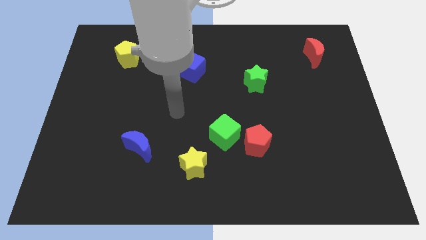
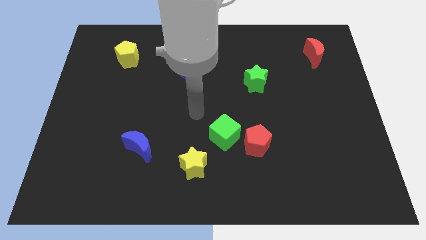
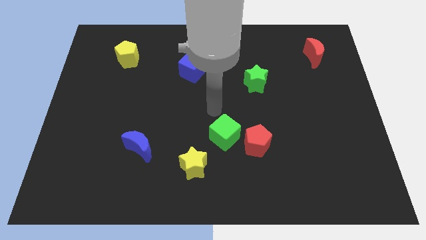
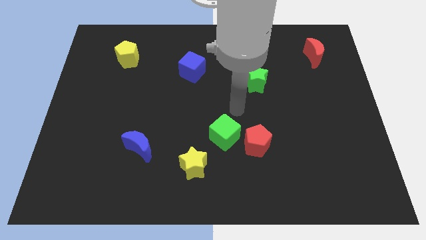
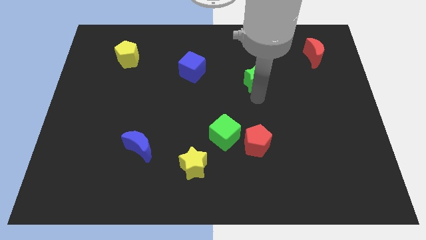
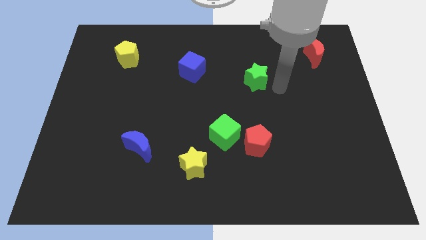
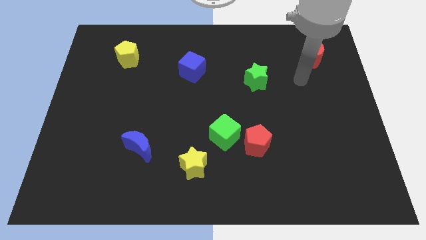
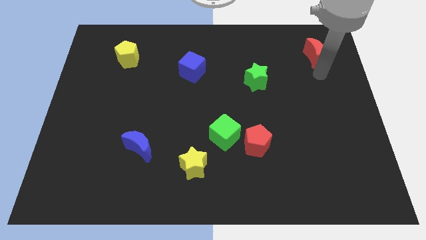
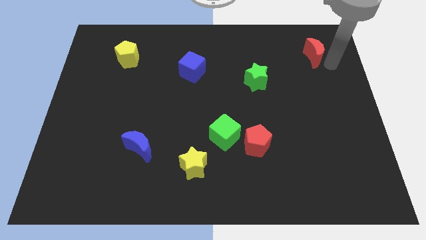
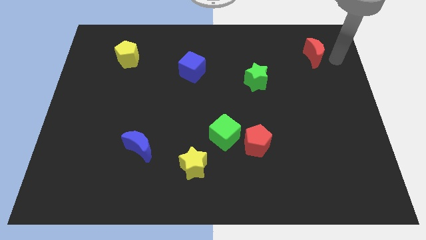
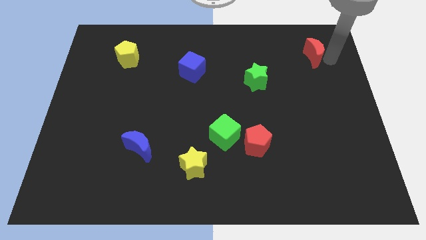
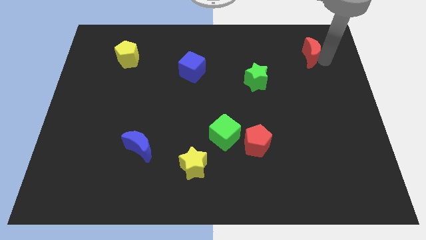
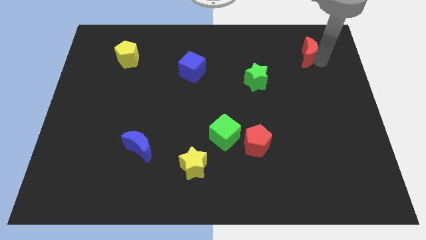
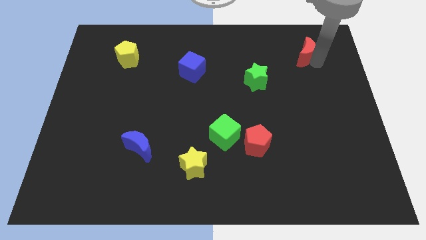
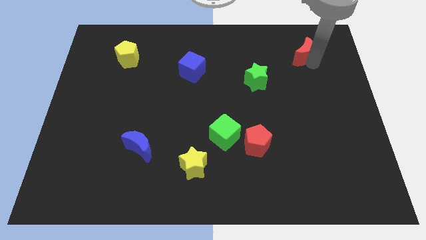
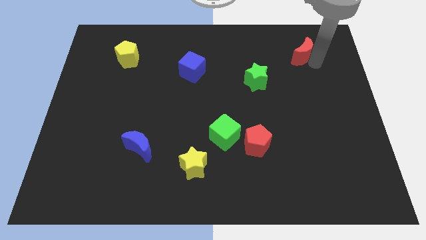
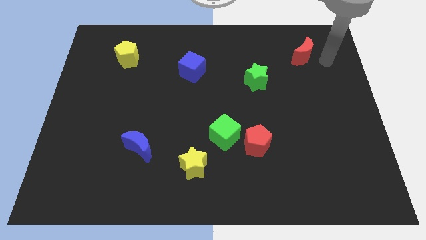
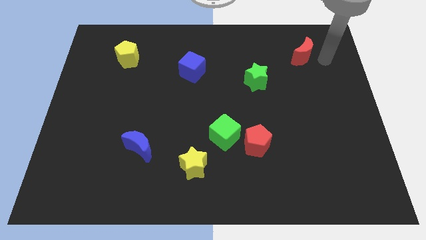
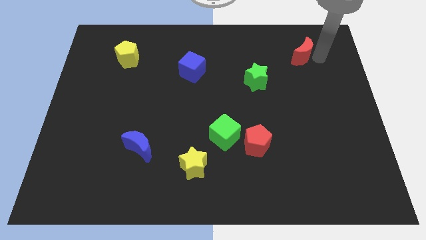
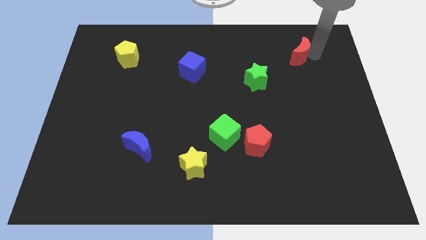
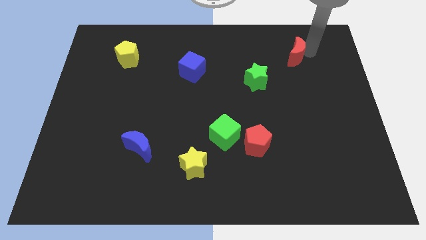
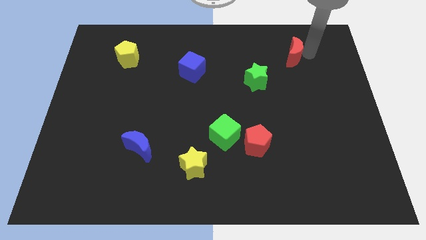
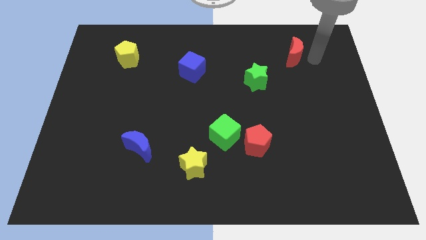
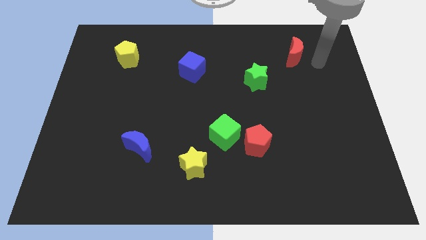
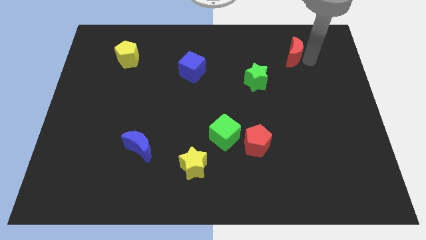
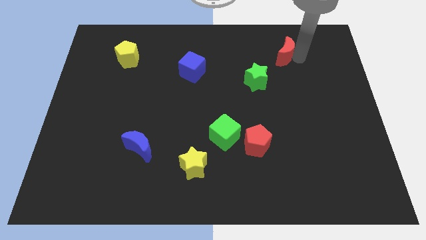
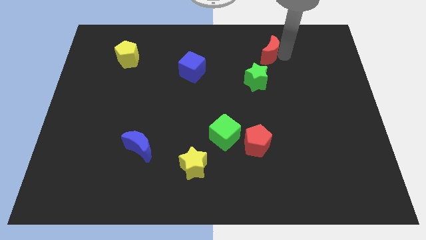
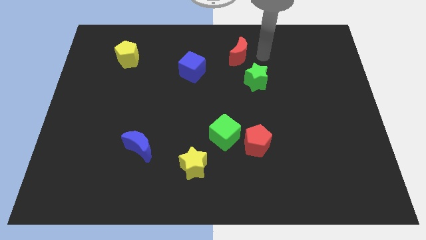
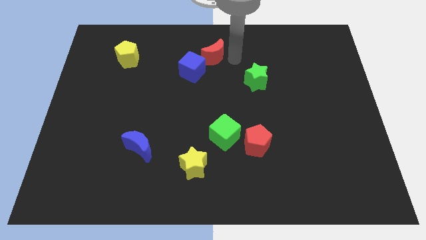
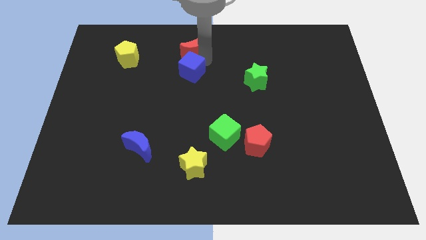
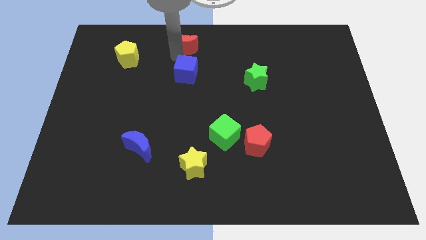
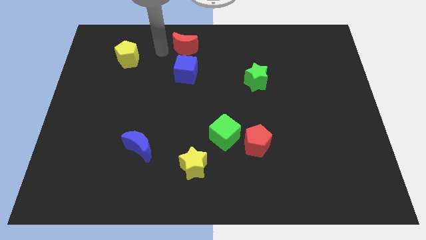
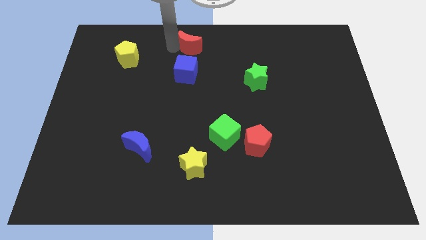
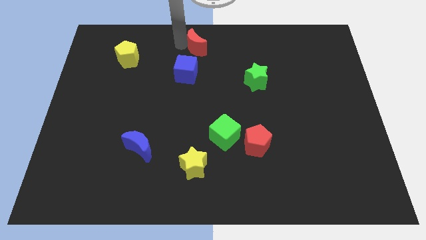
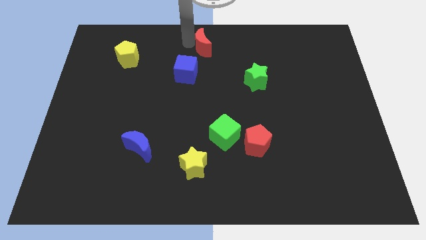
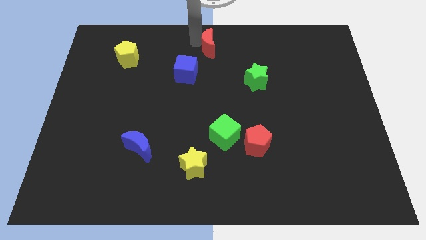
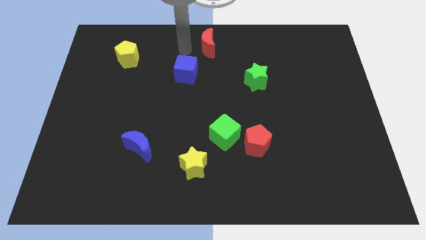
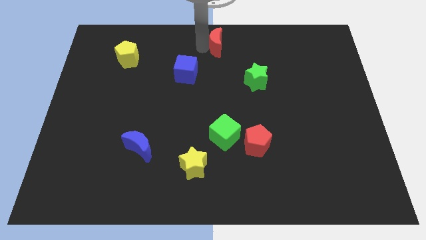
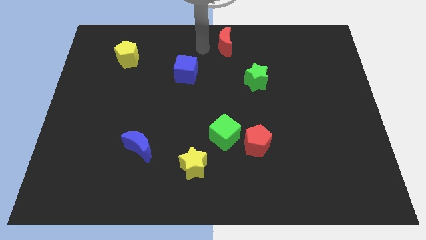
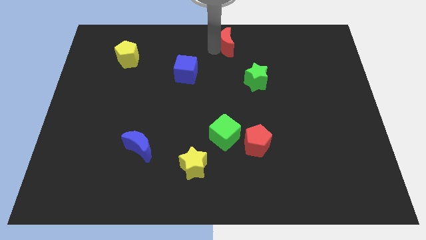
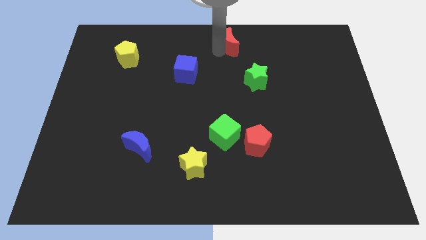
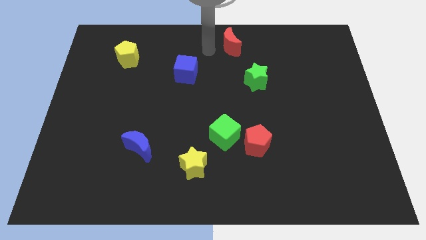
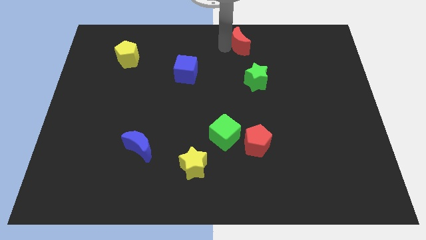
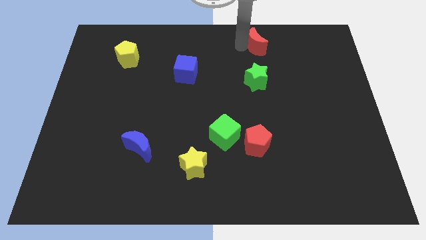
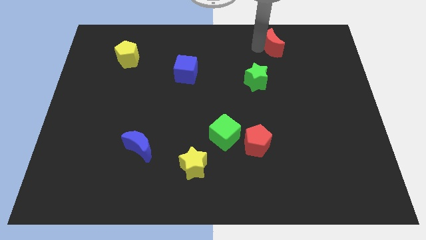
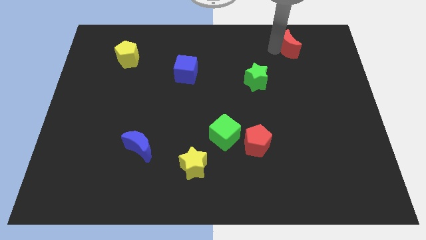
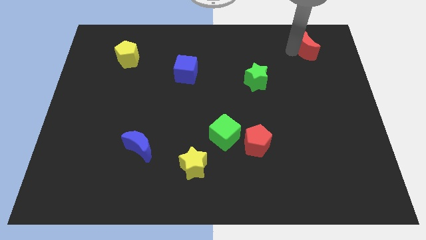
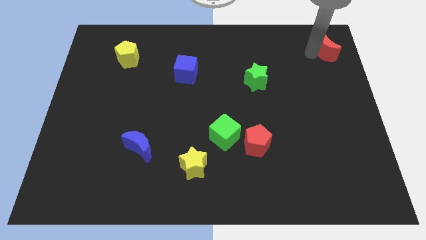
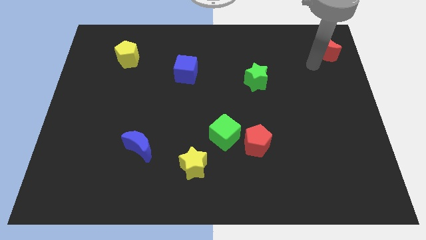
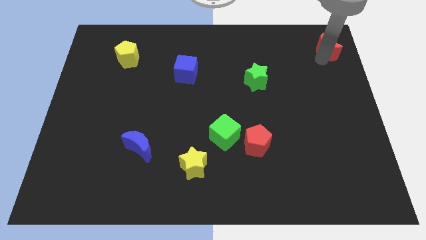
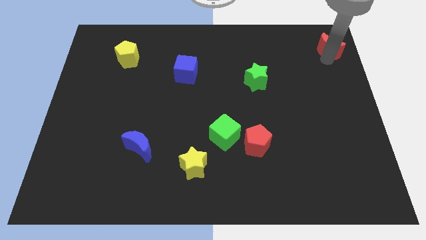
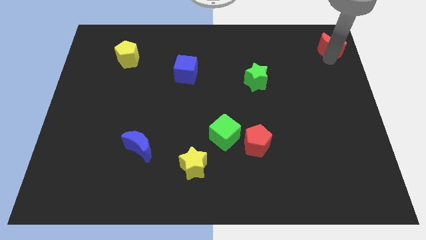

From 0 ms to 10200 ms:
put the red moon to the top right corner
